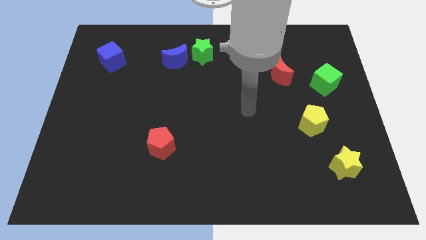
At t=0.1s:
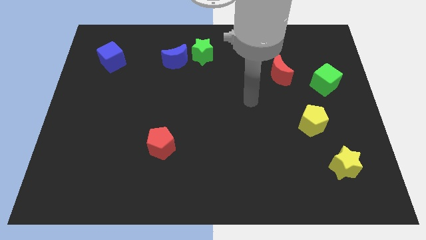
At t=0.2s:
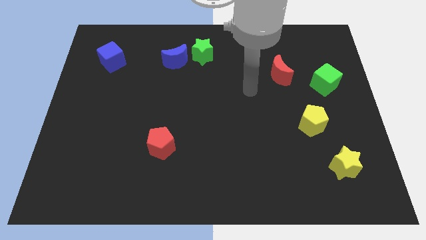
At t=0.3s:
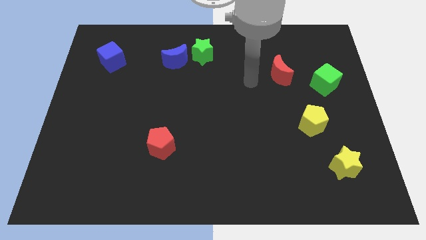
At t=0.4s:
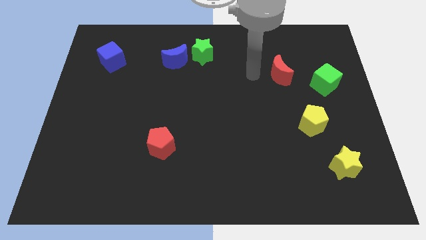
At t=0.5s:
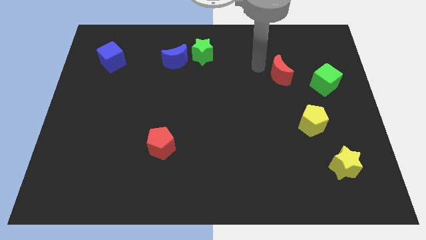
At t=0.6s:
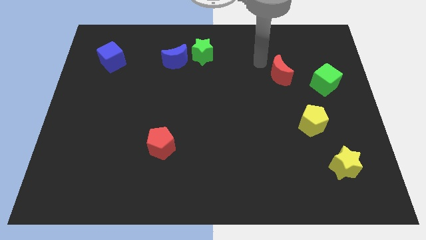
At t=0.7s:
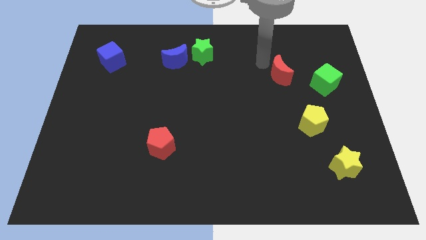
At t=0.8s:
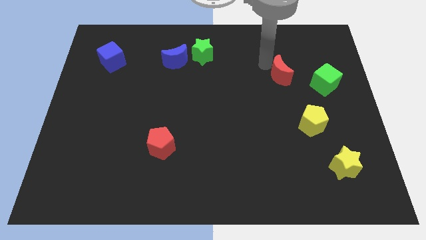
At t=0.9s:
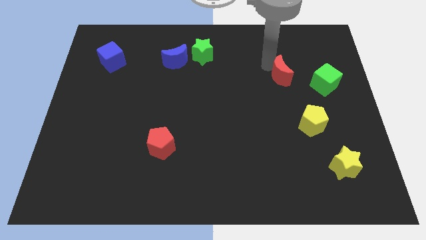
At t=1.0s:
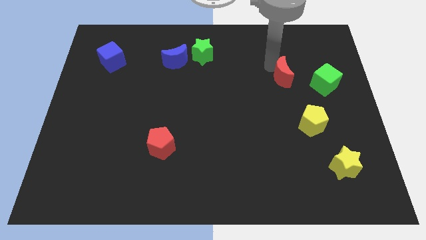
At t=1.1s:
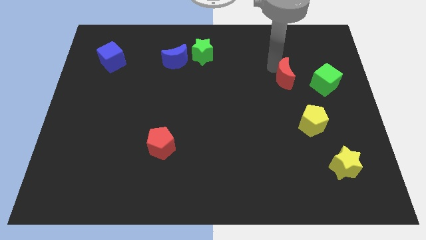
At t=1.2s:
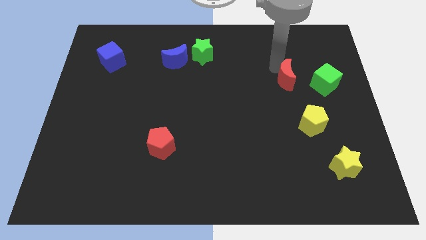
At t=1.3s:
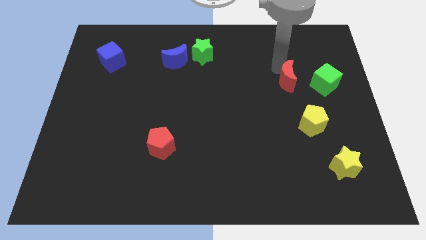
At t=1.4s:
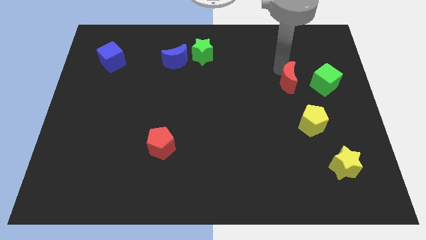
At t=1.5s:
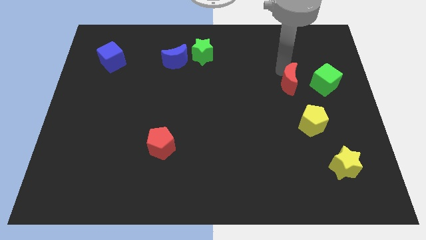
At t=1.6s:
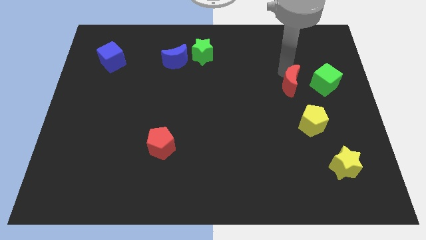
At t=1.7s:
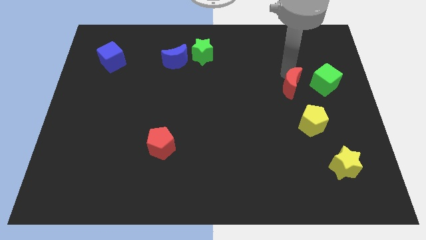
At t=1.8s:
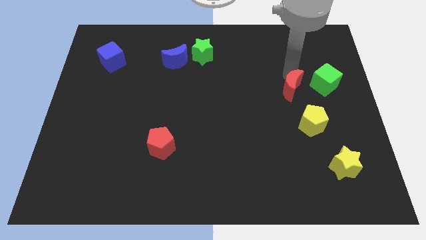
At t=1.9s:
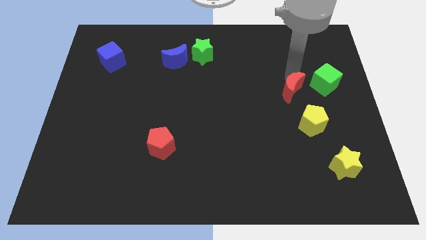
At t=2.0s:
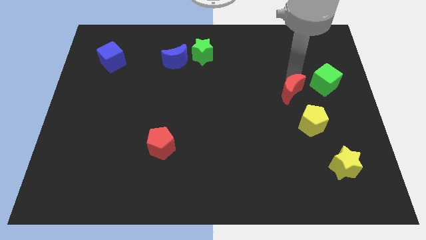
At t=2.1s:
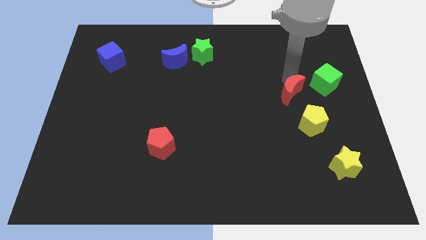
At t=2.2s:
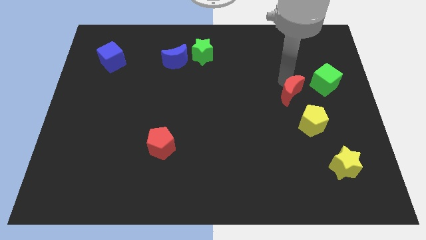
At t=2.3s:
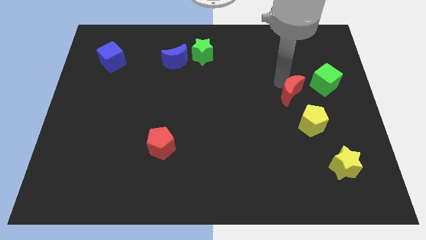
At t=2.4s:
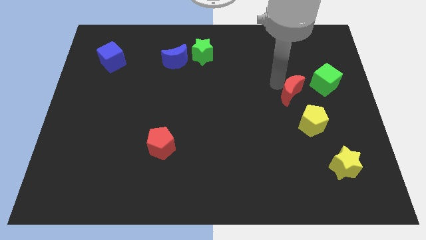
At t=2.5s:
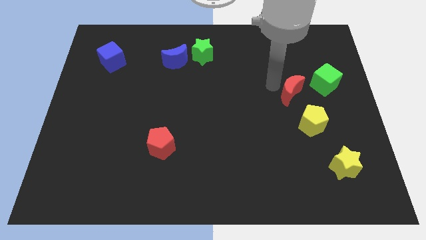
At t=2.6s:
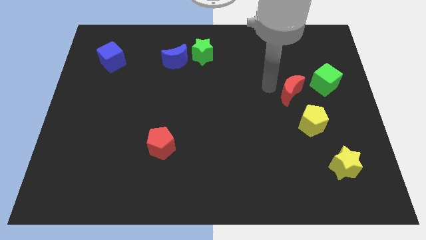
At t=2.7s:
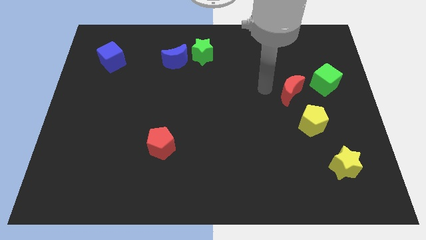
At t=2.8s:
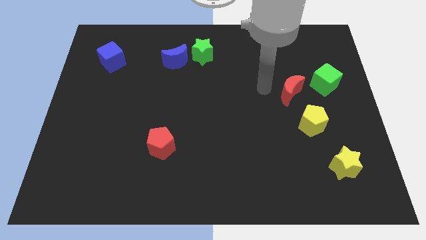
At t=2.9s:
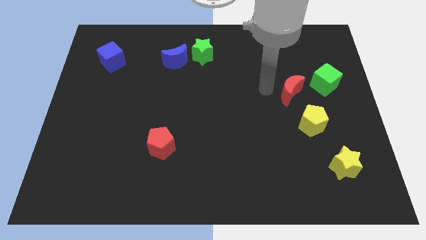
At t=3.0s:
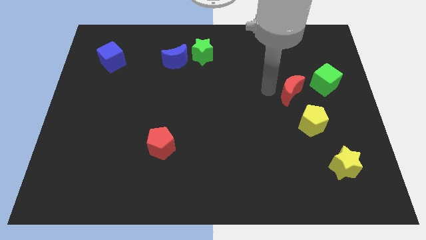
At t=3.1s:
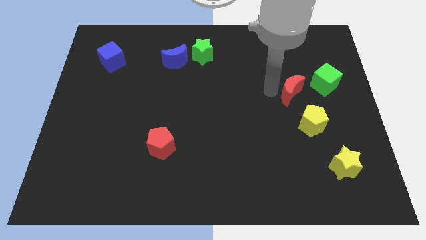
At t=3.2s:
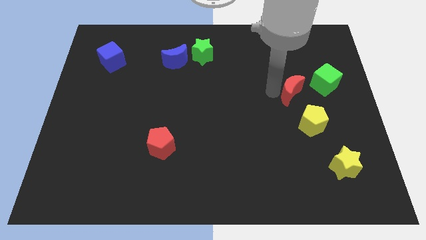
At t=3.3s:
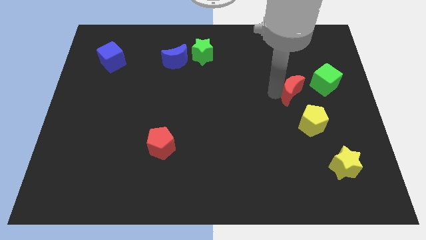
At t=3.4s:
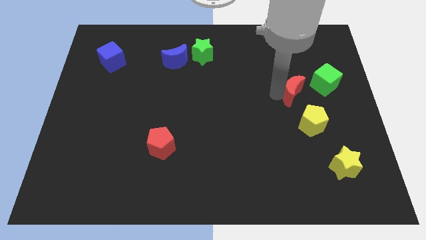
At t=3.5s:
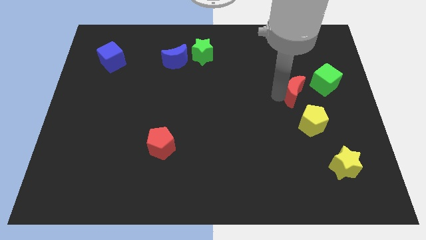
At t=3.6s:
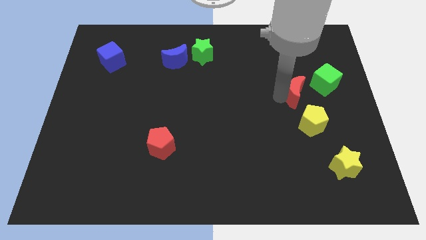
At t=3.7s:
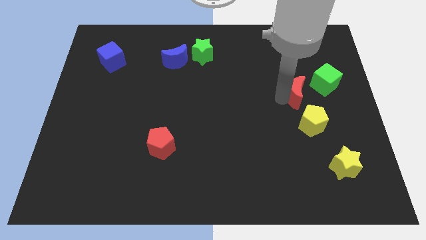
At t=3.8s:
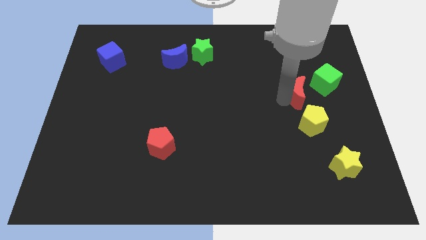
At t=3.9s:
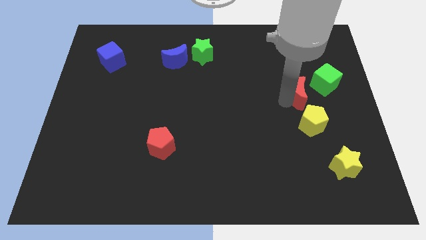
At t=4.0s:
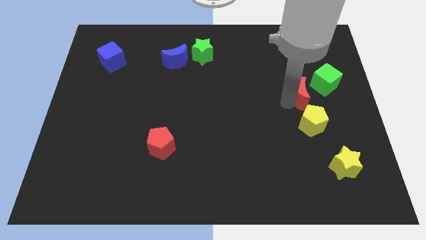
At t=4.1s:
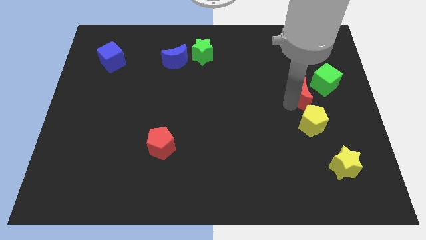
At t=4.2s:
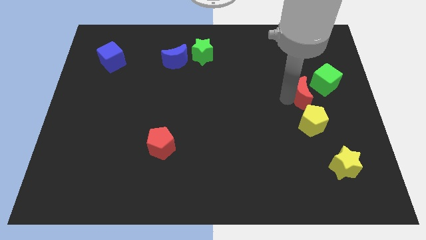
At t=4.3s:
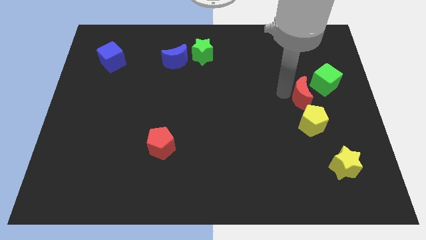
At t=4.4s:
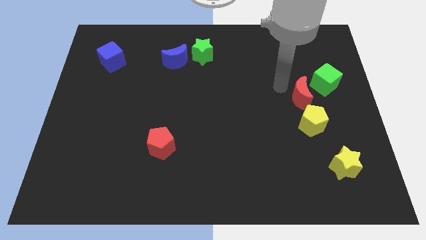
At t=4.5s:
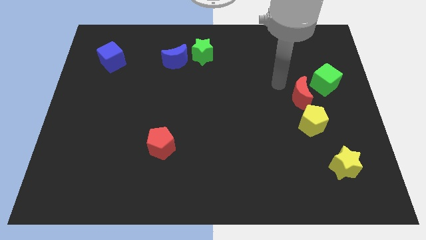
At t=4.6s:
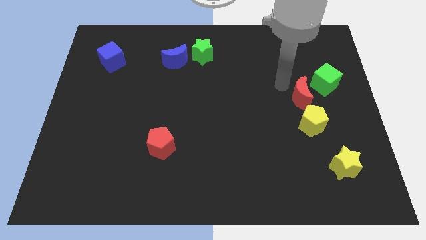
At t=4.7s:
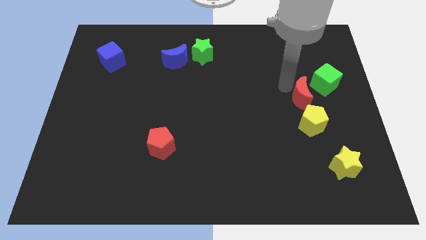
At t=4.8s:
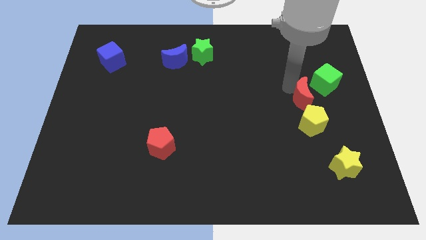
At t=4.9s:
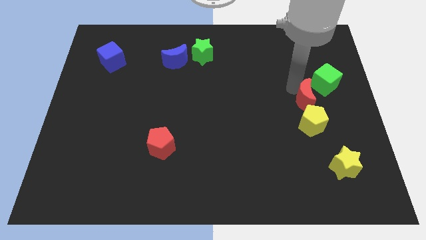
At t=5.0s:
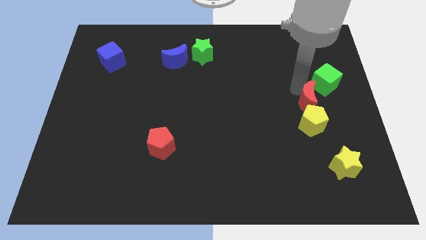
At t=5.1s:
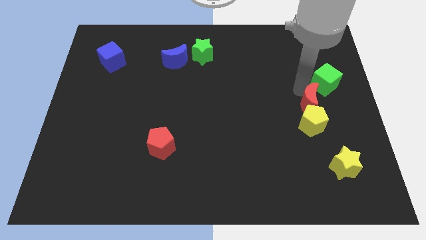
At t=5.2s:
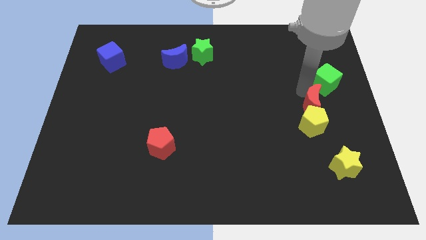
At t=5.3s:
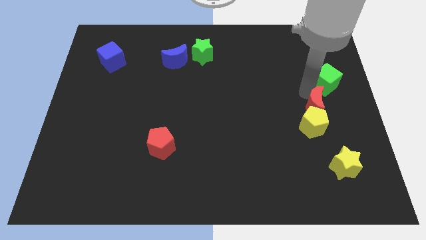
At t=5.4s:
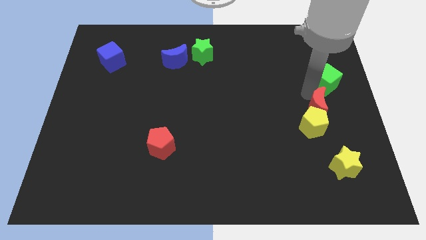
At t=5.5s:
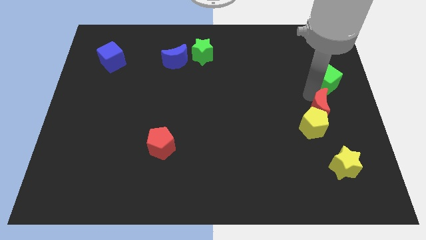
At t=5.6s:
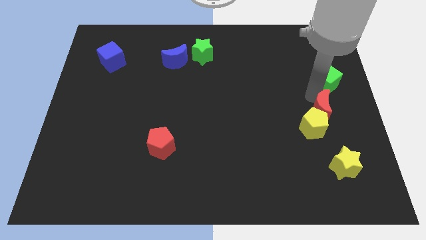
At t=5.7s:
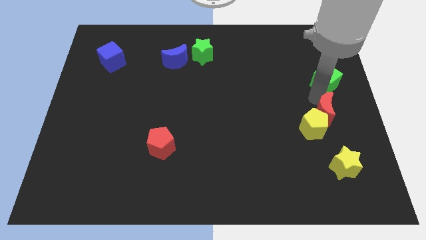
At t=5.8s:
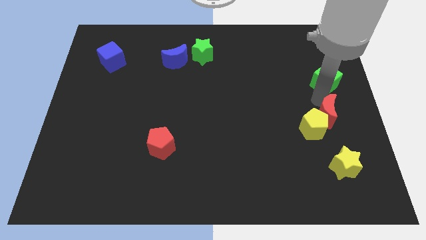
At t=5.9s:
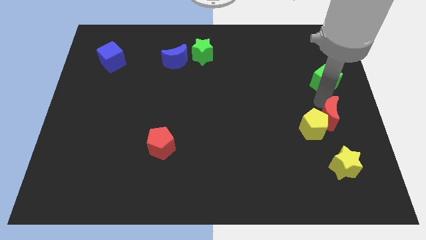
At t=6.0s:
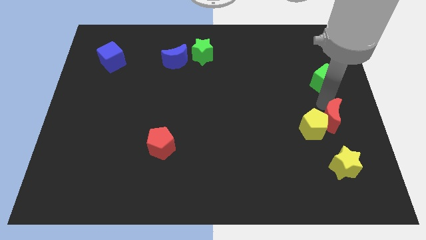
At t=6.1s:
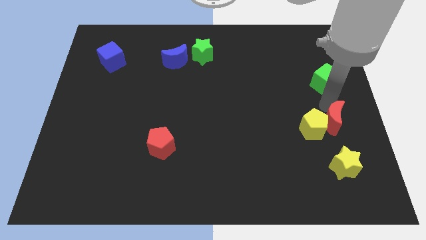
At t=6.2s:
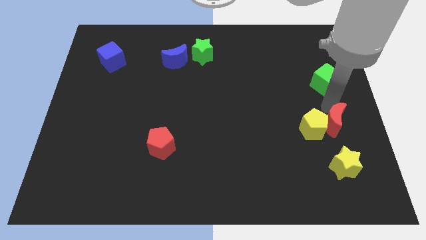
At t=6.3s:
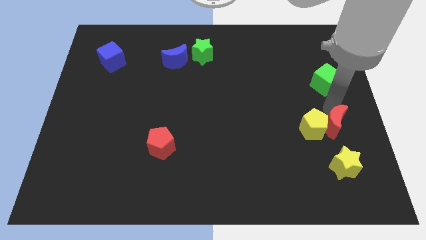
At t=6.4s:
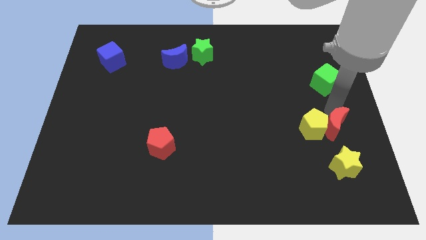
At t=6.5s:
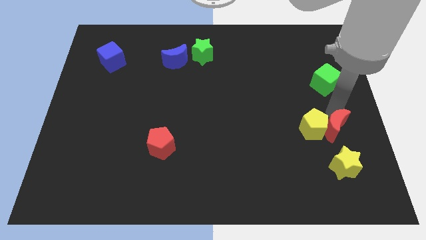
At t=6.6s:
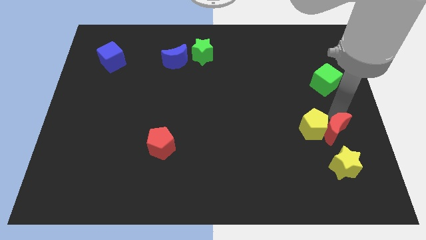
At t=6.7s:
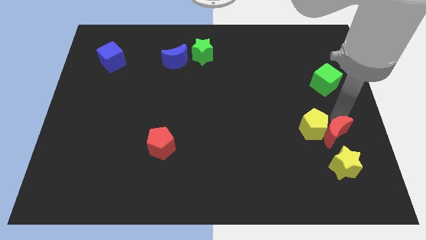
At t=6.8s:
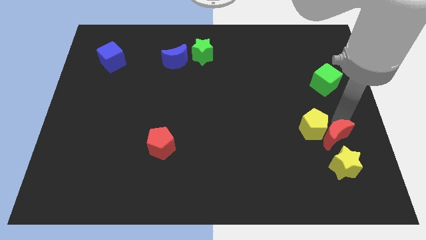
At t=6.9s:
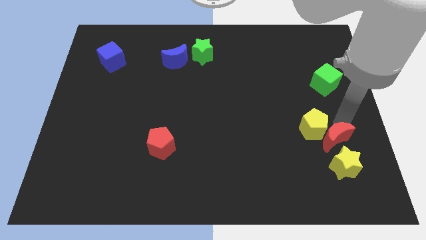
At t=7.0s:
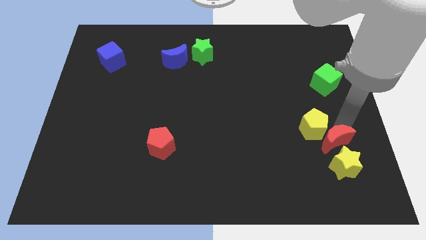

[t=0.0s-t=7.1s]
move the red moon to the yellow star

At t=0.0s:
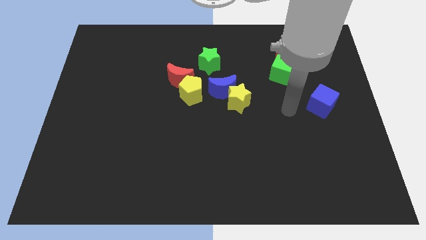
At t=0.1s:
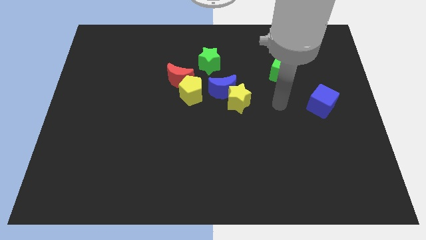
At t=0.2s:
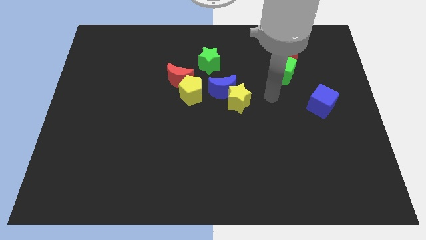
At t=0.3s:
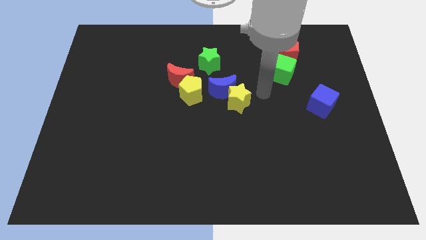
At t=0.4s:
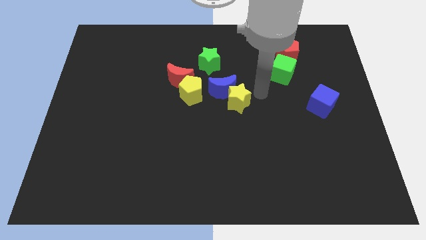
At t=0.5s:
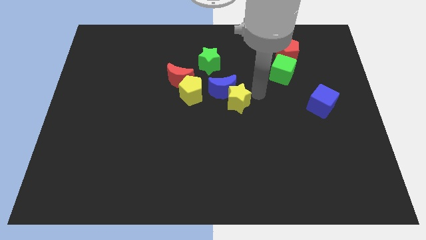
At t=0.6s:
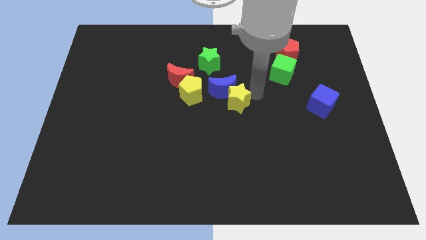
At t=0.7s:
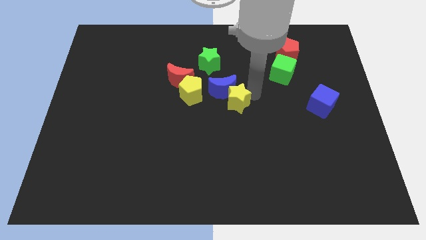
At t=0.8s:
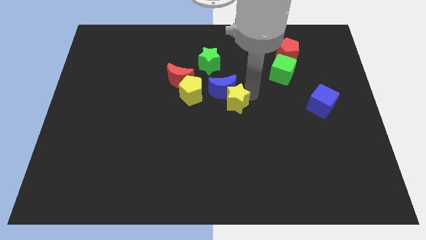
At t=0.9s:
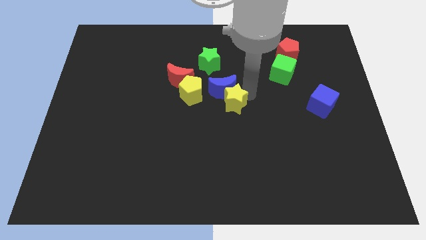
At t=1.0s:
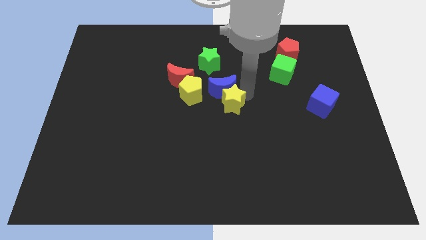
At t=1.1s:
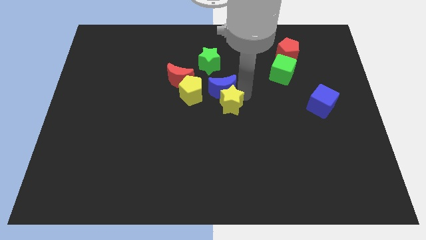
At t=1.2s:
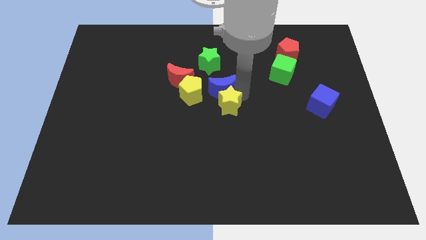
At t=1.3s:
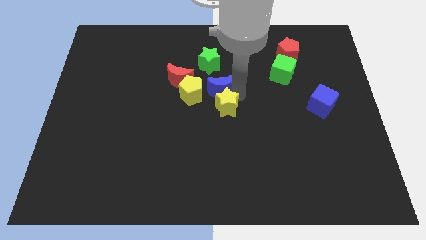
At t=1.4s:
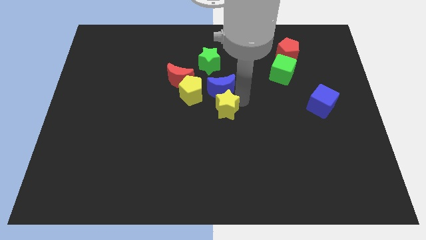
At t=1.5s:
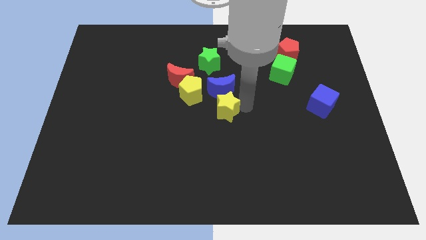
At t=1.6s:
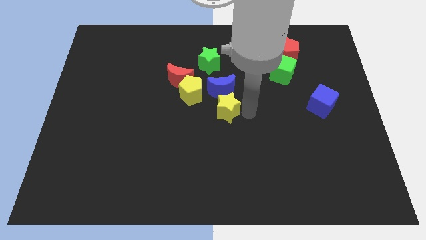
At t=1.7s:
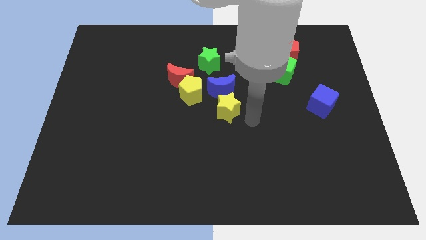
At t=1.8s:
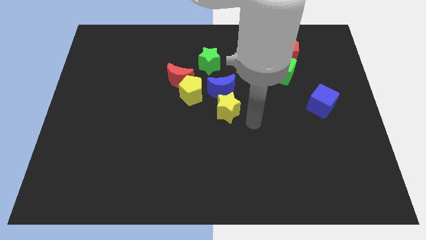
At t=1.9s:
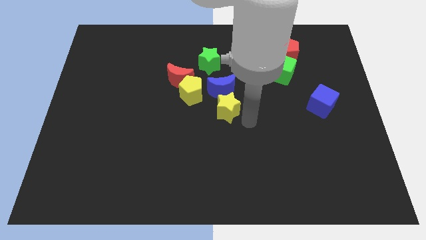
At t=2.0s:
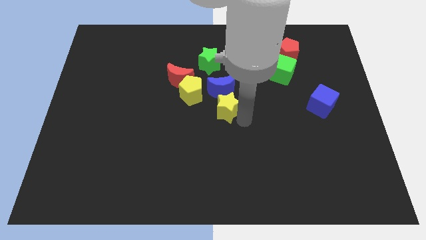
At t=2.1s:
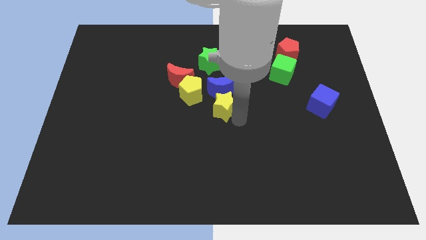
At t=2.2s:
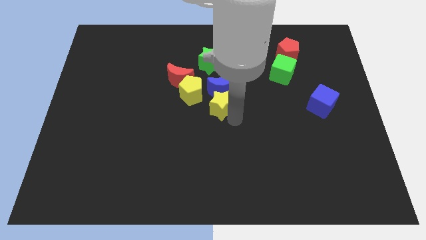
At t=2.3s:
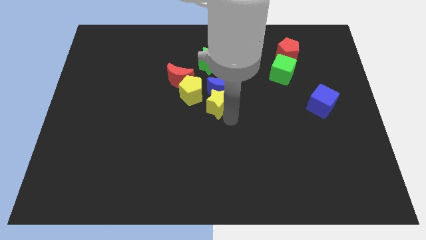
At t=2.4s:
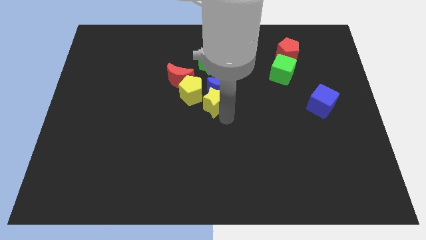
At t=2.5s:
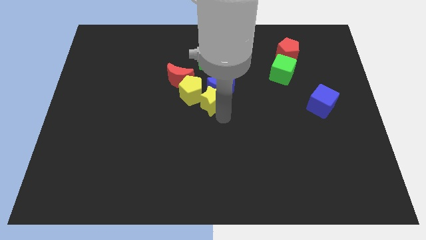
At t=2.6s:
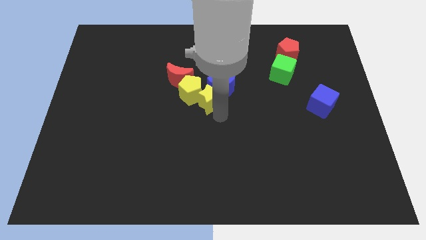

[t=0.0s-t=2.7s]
slide the yellow star towards the yellow pentagon
